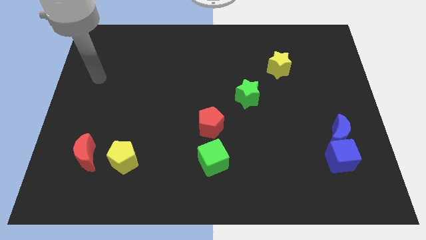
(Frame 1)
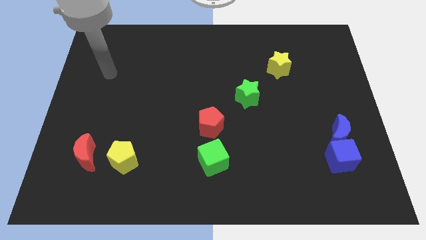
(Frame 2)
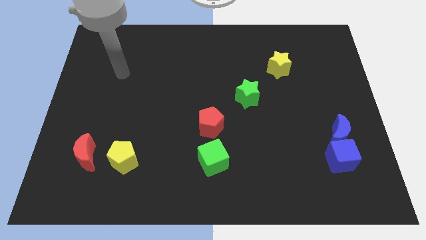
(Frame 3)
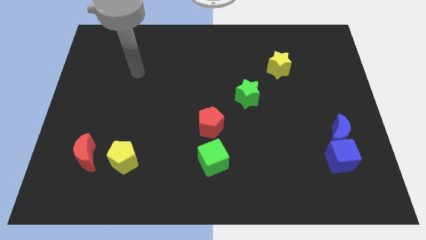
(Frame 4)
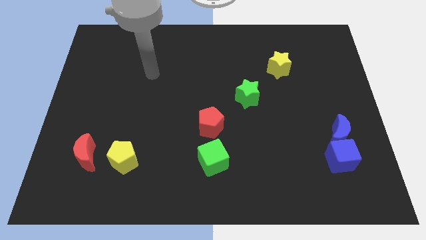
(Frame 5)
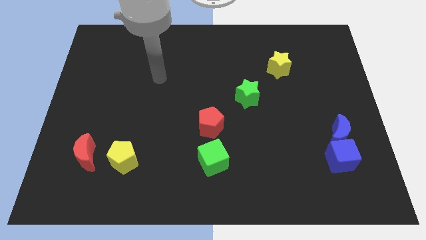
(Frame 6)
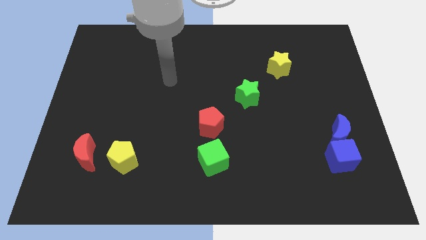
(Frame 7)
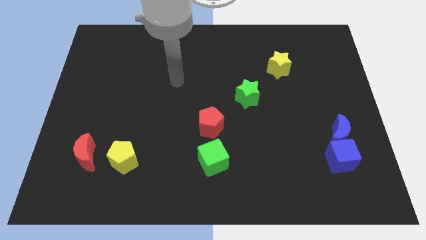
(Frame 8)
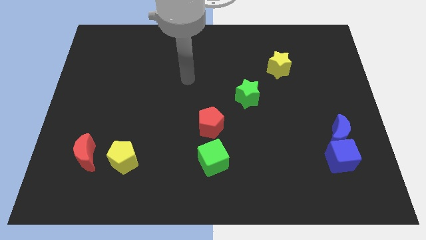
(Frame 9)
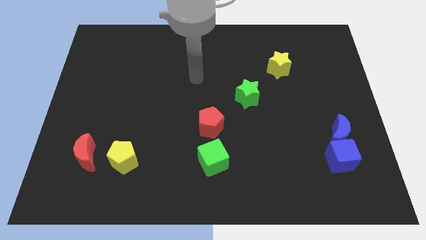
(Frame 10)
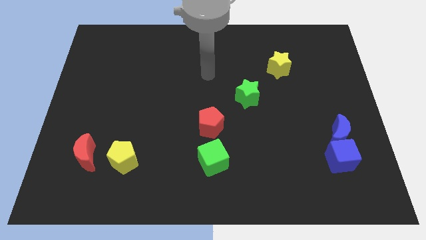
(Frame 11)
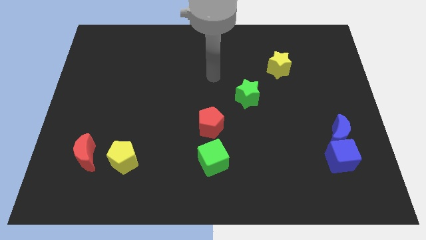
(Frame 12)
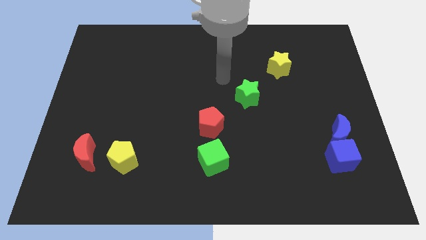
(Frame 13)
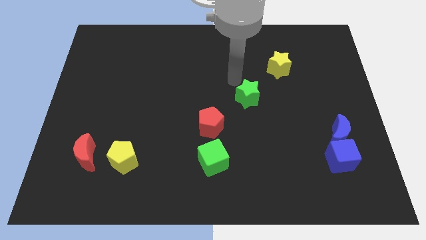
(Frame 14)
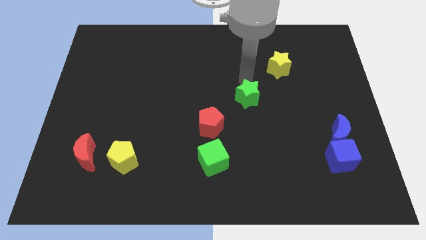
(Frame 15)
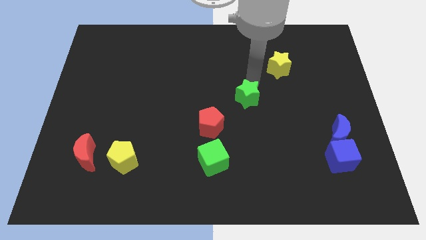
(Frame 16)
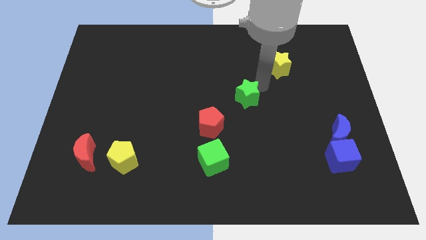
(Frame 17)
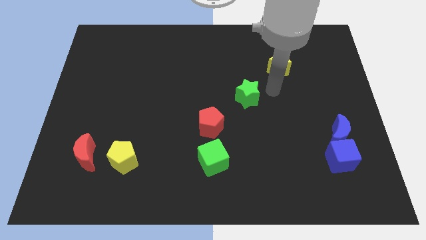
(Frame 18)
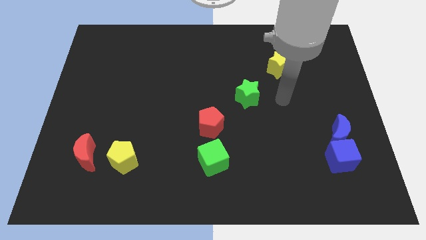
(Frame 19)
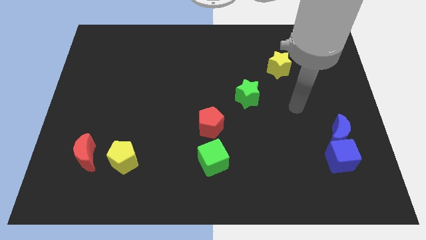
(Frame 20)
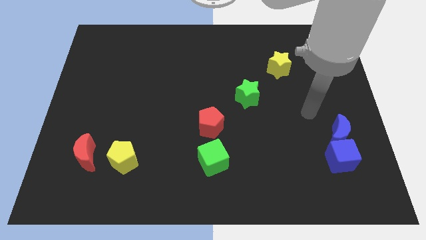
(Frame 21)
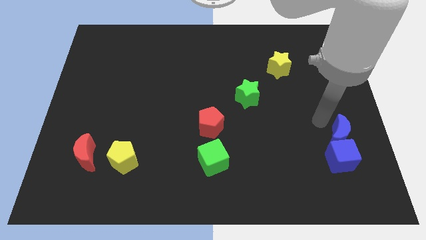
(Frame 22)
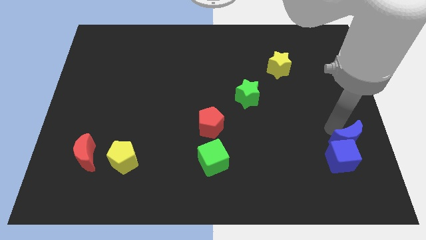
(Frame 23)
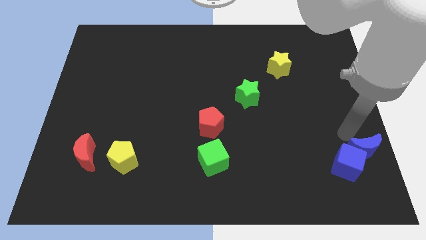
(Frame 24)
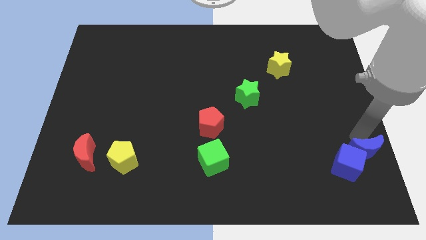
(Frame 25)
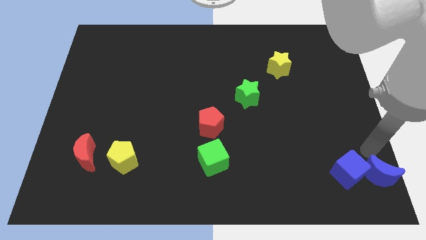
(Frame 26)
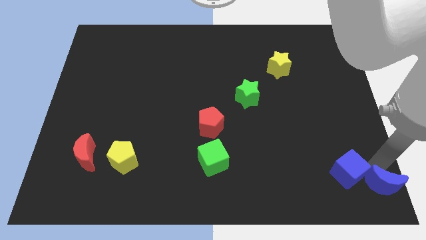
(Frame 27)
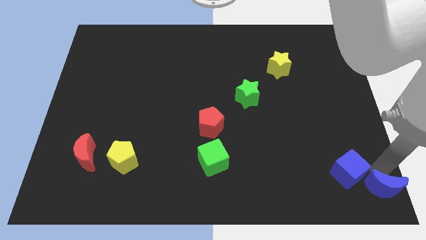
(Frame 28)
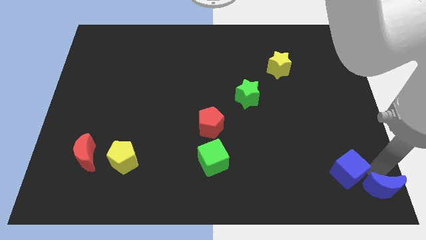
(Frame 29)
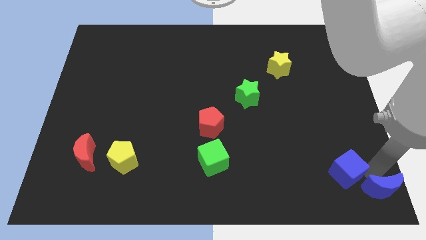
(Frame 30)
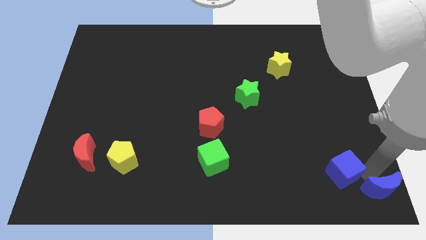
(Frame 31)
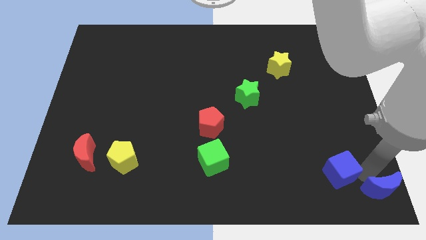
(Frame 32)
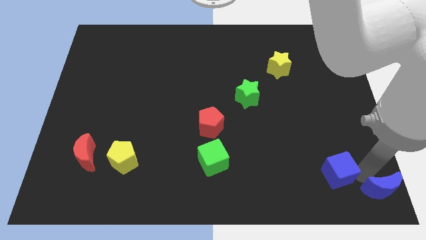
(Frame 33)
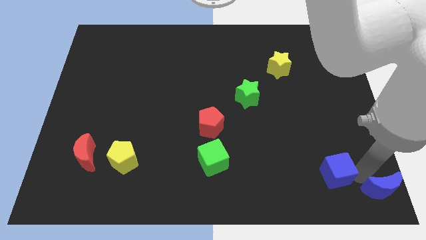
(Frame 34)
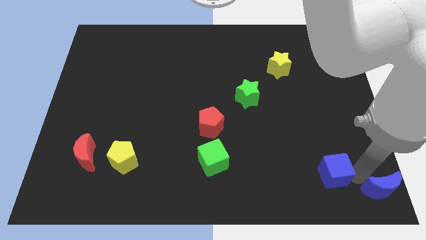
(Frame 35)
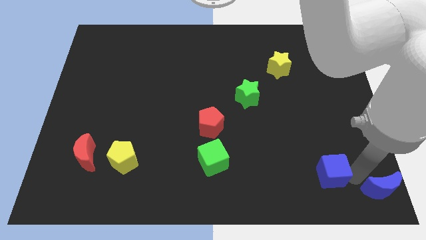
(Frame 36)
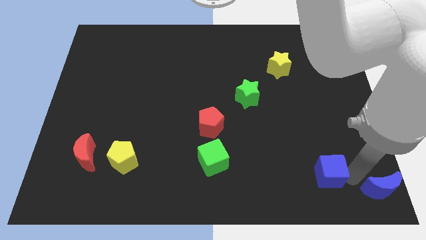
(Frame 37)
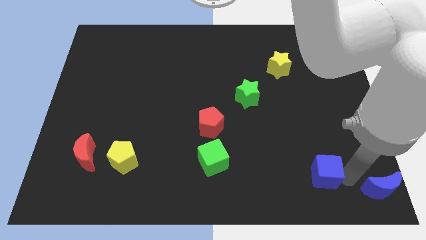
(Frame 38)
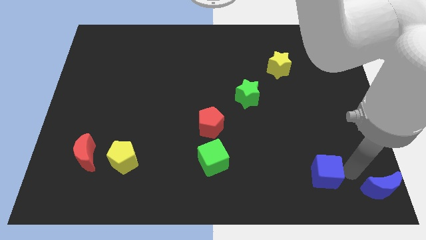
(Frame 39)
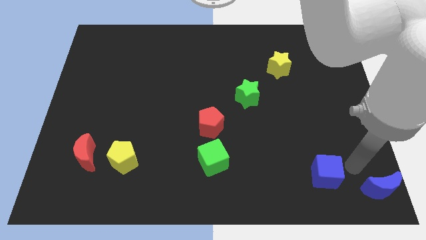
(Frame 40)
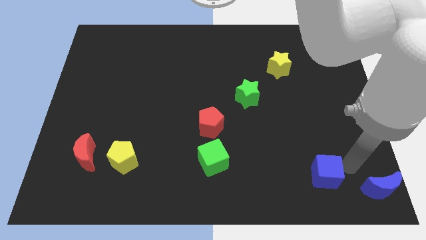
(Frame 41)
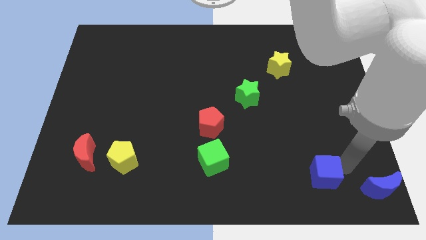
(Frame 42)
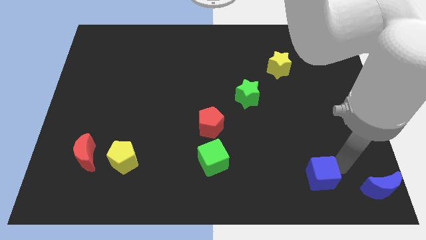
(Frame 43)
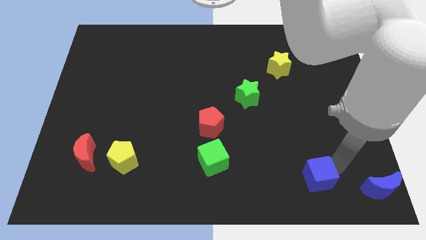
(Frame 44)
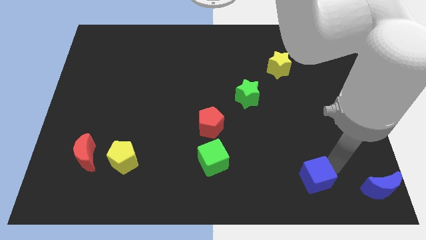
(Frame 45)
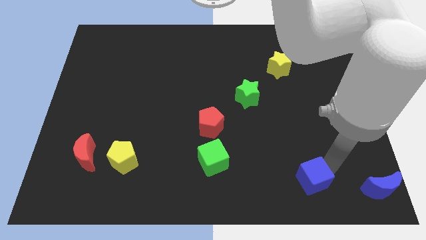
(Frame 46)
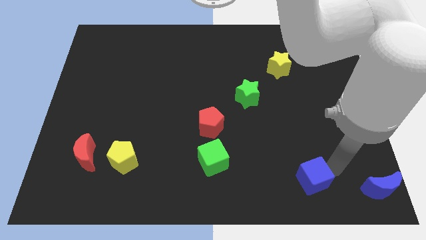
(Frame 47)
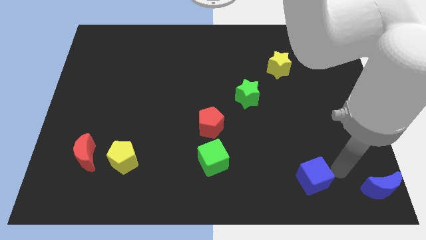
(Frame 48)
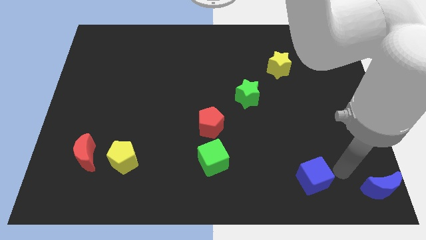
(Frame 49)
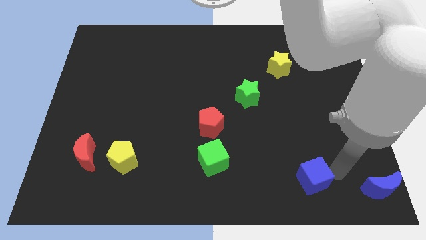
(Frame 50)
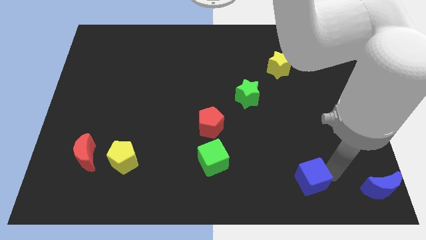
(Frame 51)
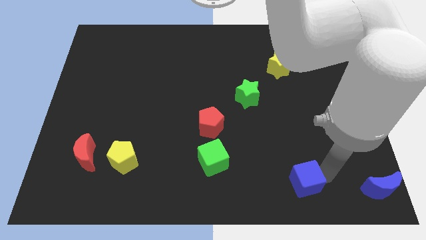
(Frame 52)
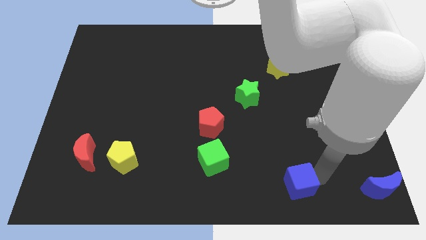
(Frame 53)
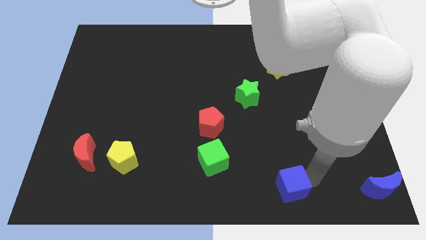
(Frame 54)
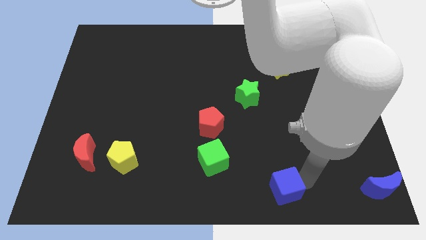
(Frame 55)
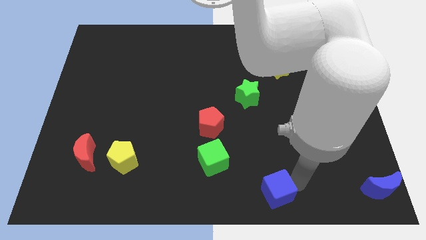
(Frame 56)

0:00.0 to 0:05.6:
push the blue cube to the bottom
